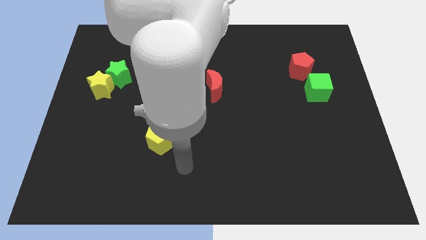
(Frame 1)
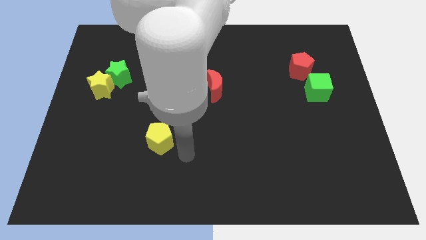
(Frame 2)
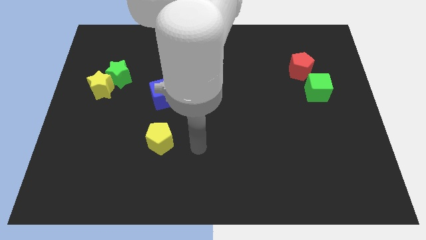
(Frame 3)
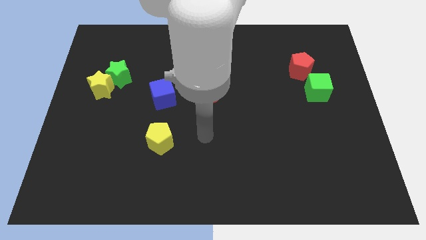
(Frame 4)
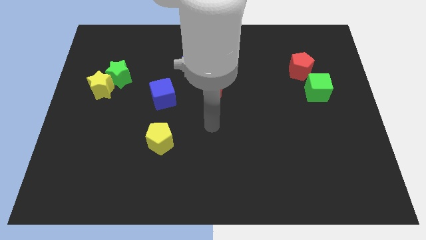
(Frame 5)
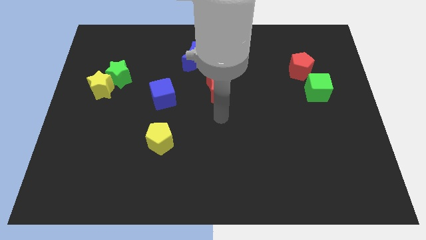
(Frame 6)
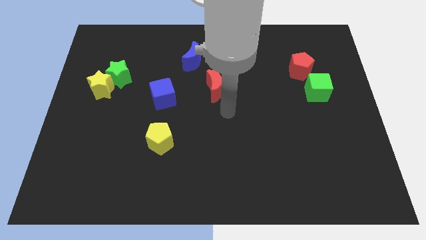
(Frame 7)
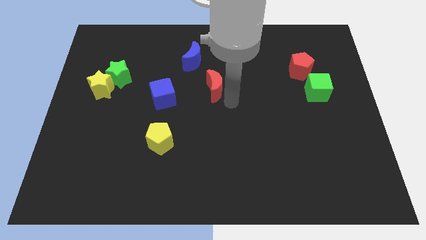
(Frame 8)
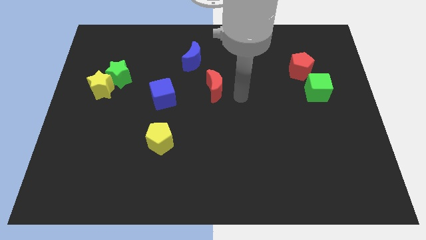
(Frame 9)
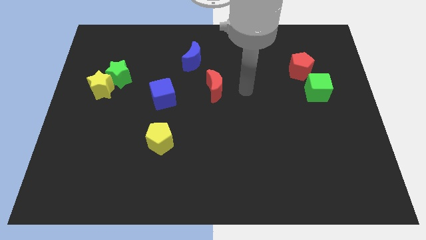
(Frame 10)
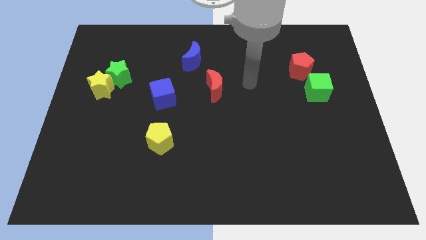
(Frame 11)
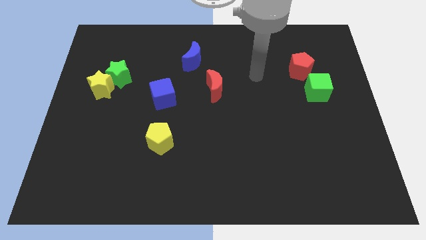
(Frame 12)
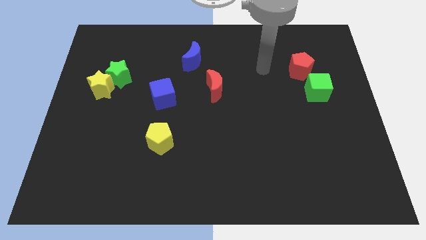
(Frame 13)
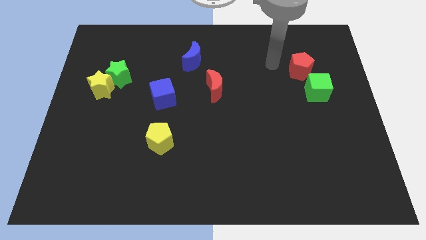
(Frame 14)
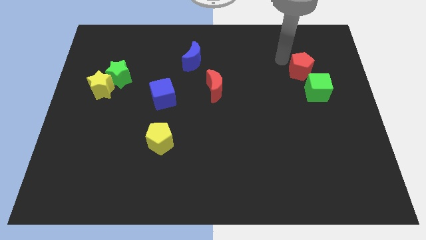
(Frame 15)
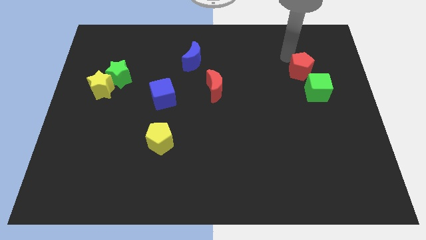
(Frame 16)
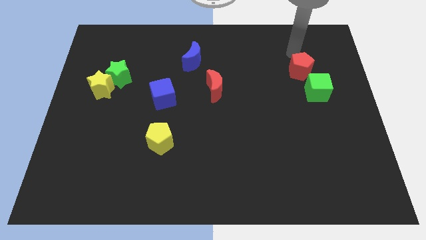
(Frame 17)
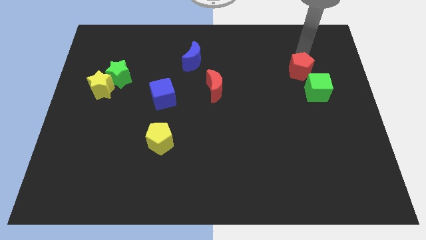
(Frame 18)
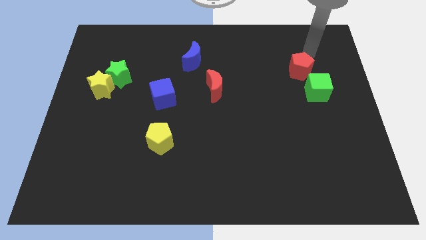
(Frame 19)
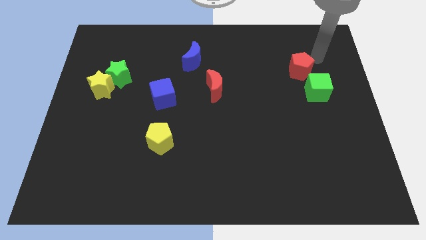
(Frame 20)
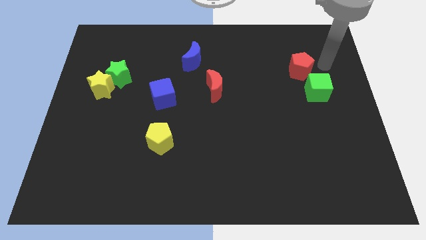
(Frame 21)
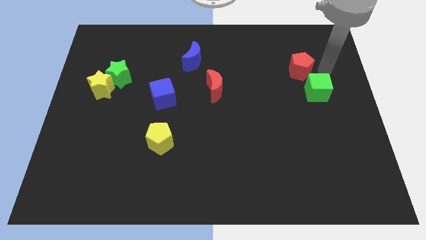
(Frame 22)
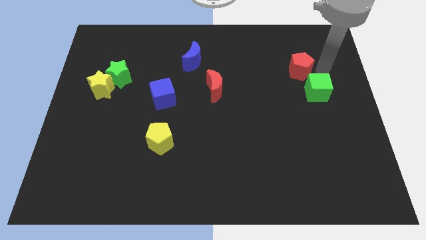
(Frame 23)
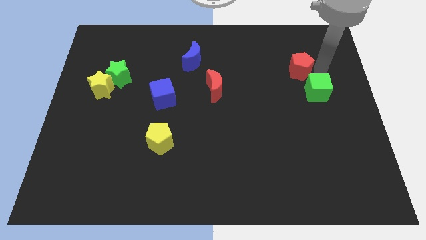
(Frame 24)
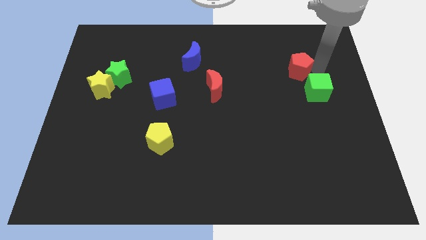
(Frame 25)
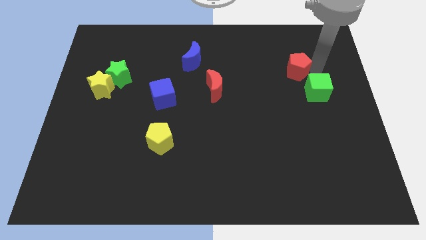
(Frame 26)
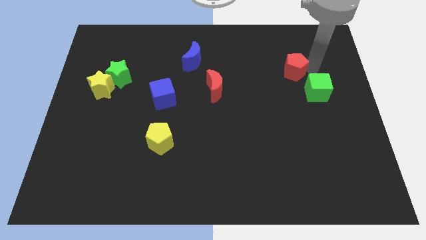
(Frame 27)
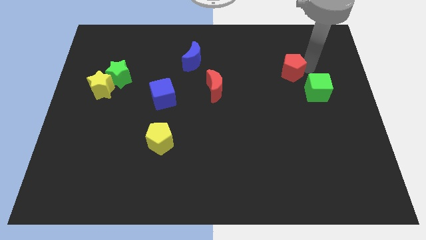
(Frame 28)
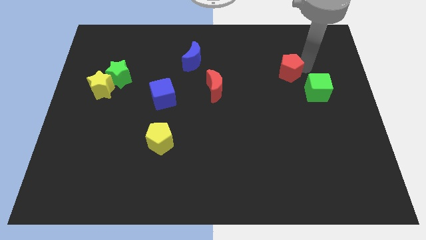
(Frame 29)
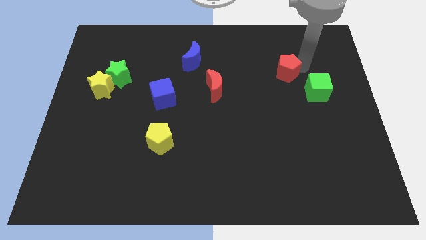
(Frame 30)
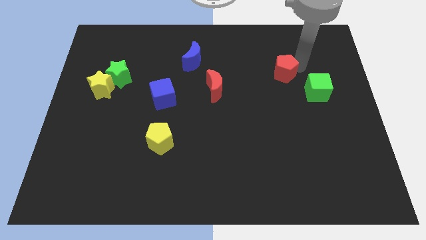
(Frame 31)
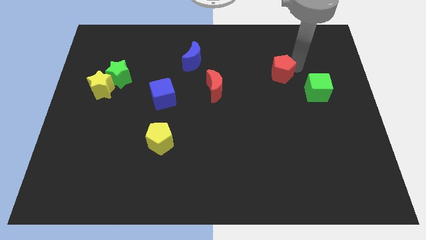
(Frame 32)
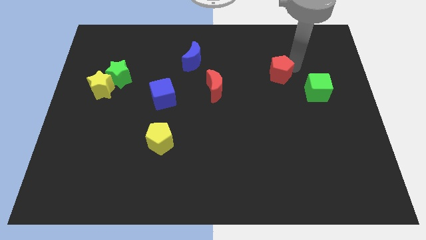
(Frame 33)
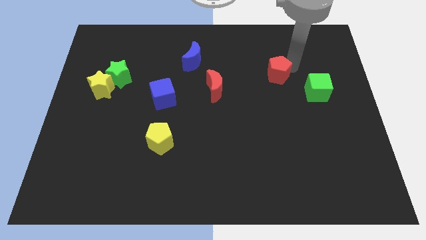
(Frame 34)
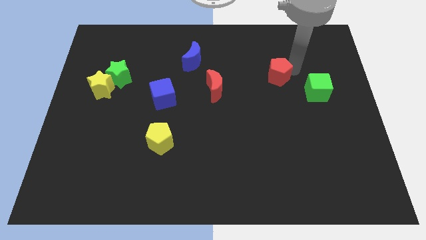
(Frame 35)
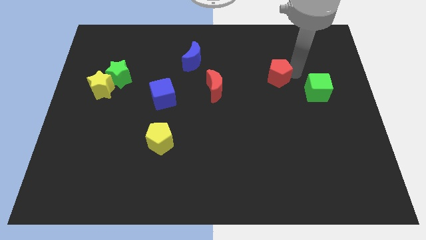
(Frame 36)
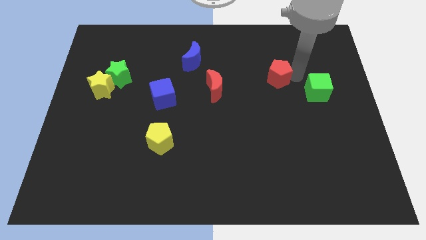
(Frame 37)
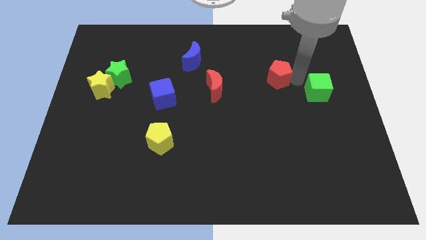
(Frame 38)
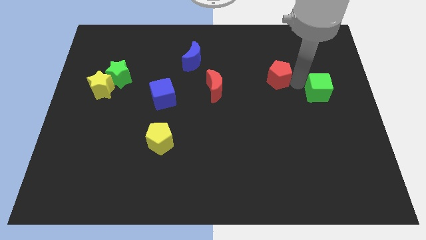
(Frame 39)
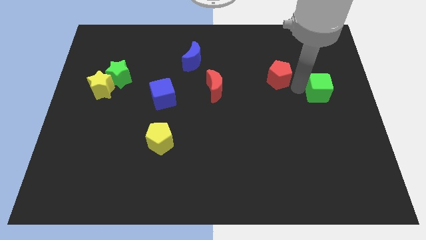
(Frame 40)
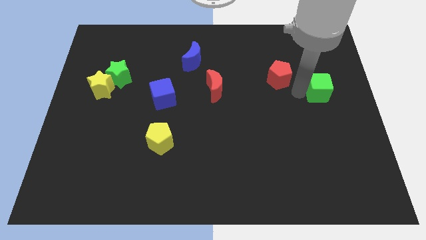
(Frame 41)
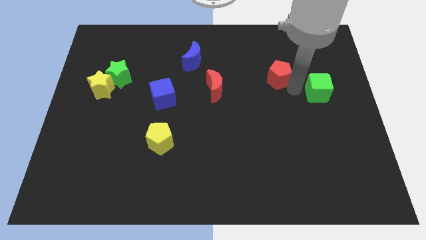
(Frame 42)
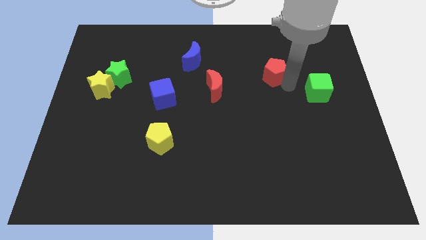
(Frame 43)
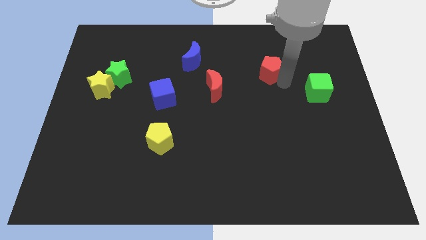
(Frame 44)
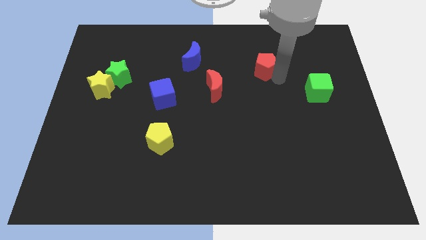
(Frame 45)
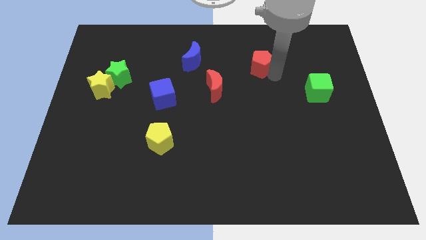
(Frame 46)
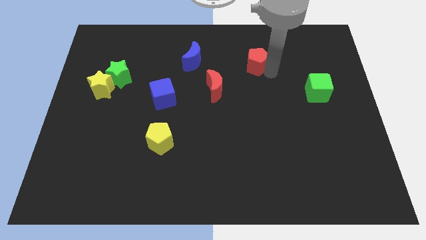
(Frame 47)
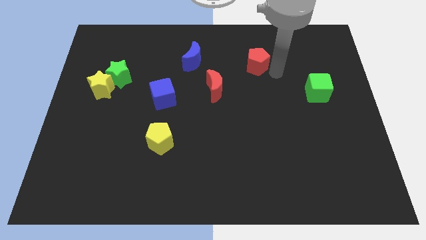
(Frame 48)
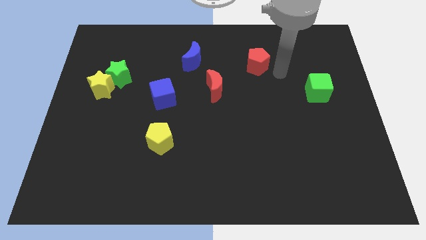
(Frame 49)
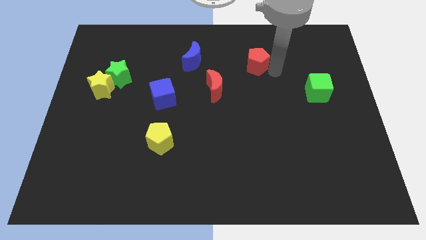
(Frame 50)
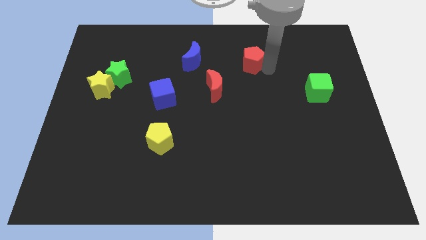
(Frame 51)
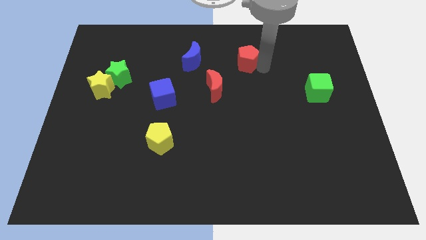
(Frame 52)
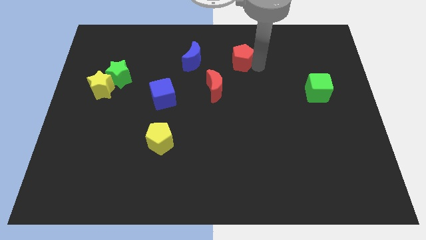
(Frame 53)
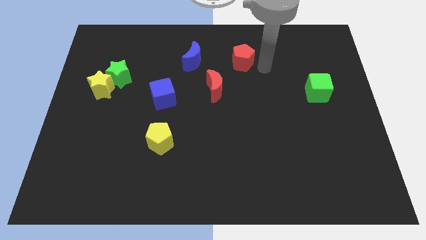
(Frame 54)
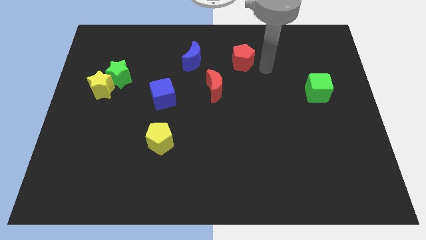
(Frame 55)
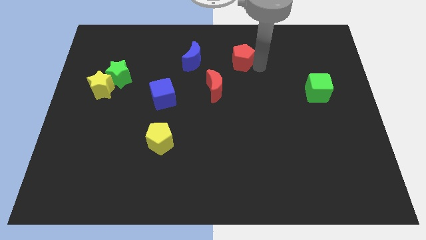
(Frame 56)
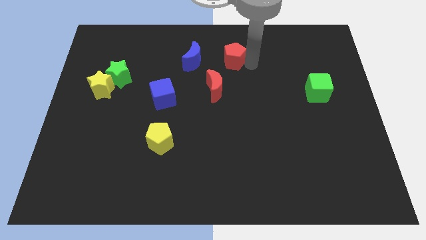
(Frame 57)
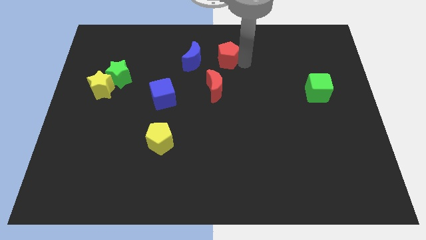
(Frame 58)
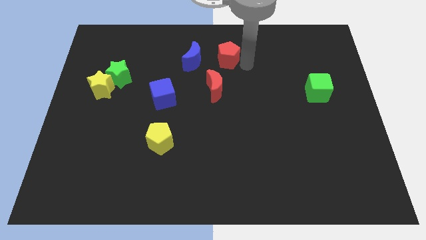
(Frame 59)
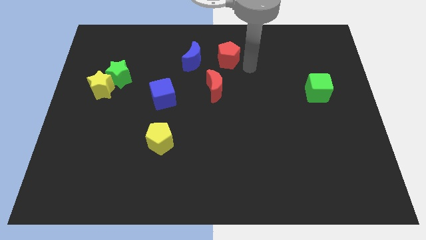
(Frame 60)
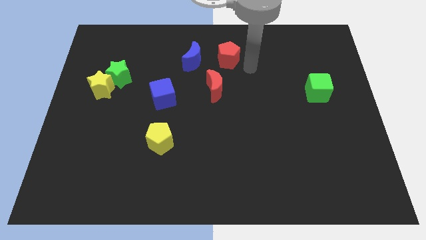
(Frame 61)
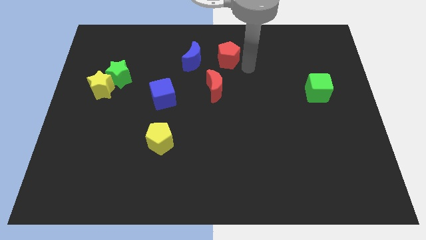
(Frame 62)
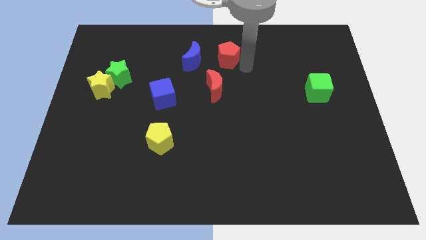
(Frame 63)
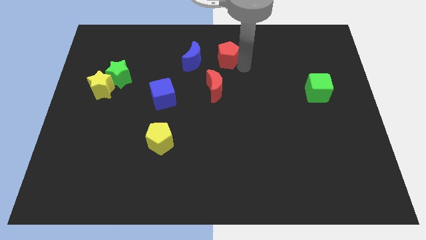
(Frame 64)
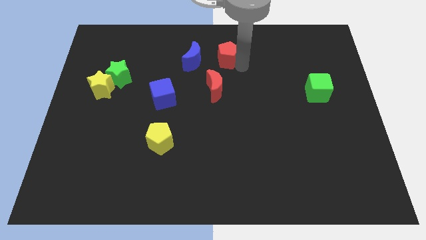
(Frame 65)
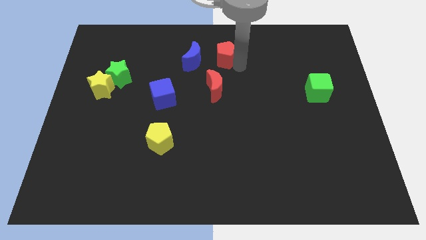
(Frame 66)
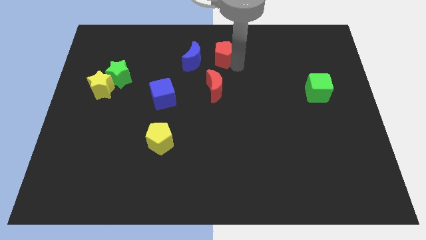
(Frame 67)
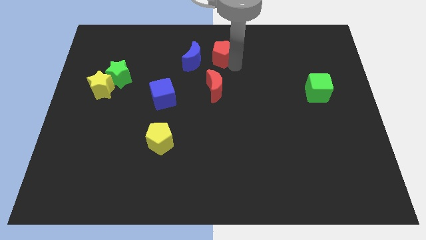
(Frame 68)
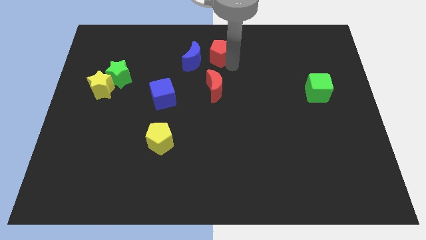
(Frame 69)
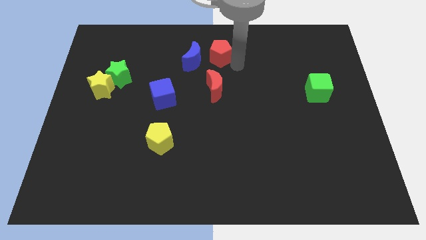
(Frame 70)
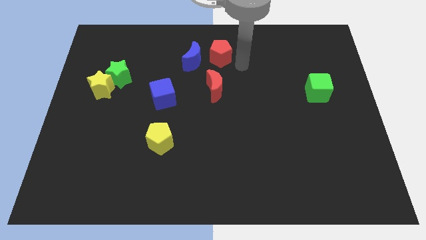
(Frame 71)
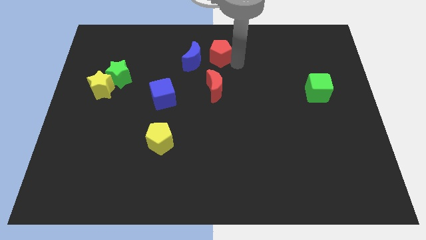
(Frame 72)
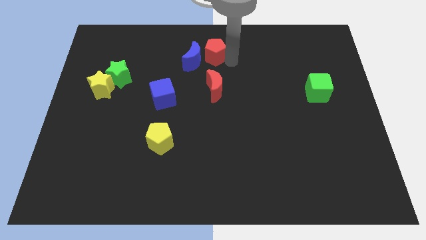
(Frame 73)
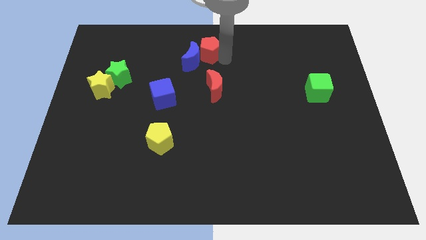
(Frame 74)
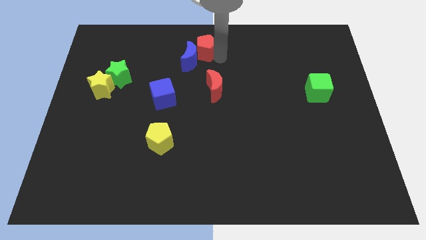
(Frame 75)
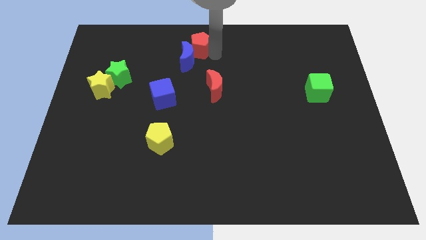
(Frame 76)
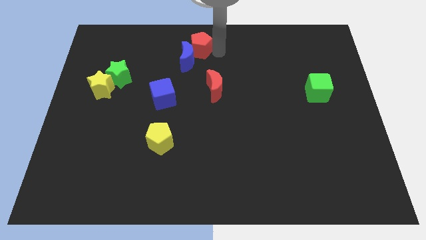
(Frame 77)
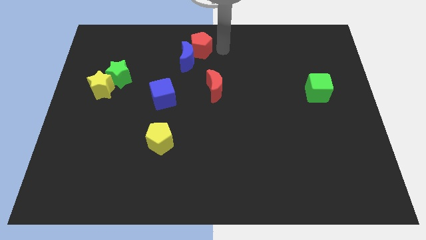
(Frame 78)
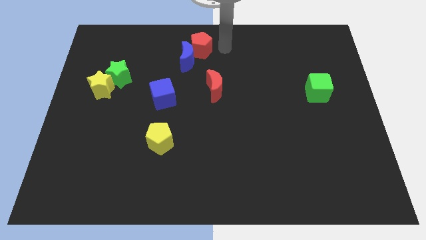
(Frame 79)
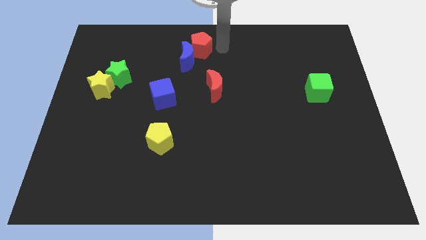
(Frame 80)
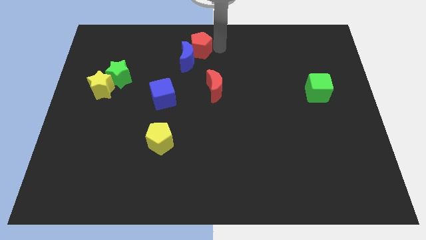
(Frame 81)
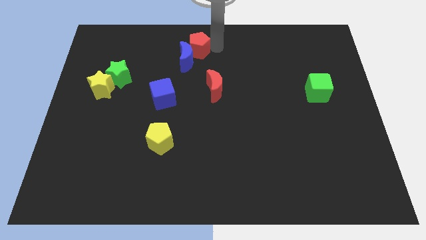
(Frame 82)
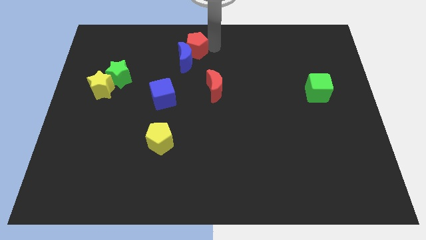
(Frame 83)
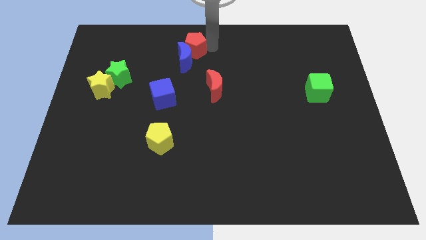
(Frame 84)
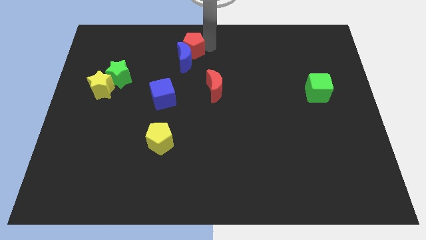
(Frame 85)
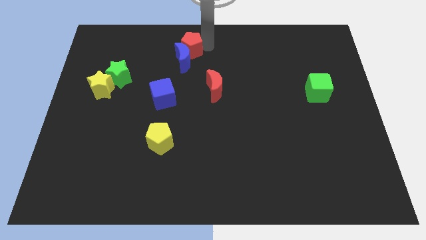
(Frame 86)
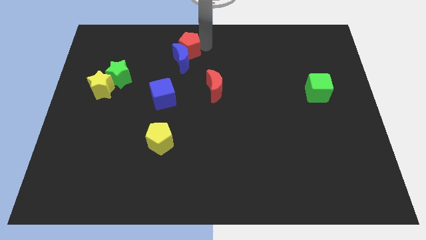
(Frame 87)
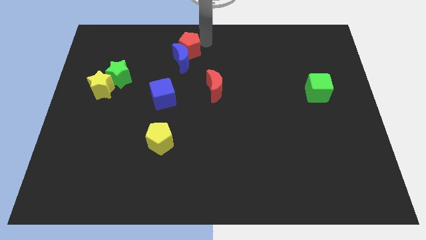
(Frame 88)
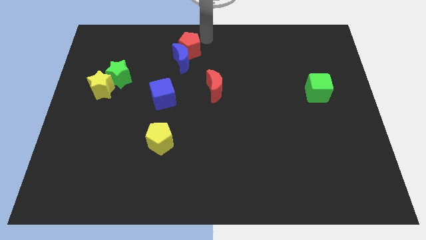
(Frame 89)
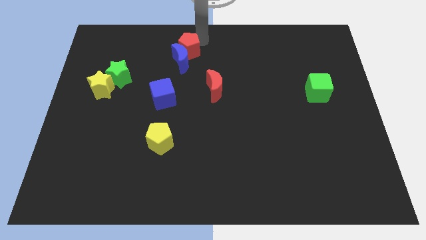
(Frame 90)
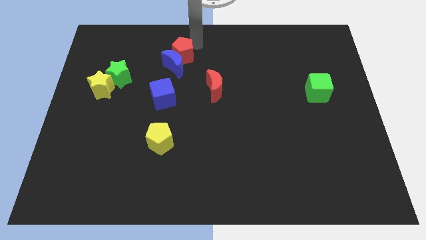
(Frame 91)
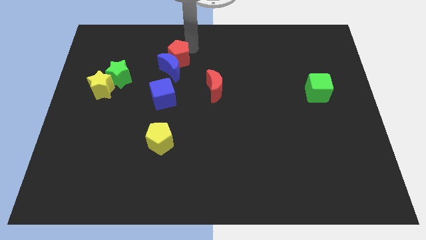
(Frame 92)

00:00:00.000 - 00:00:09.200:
put the red pentagon to the top side of the blue cube
